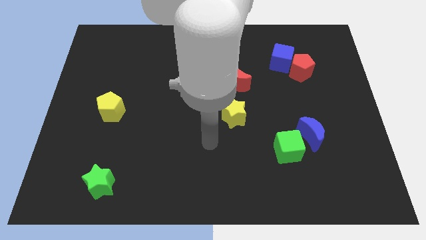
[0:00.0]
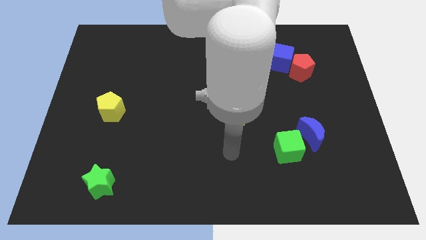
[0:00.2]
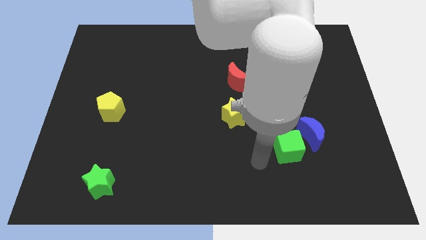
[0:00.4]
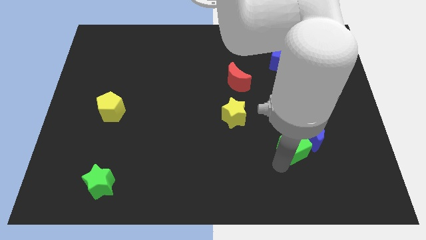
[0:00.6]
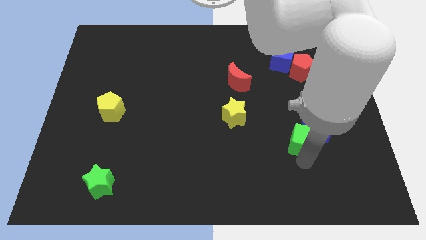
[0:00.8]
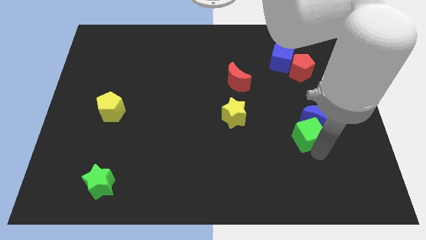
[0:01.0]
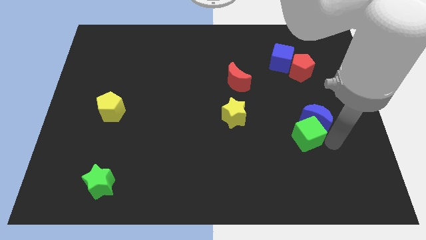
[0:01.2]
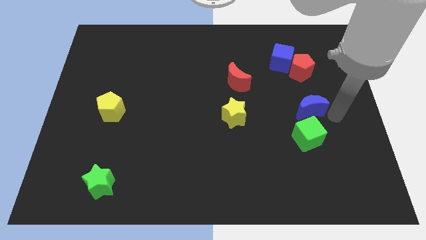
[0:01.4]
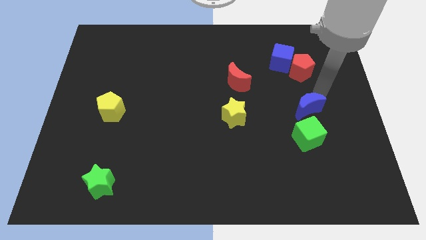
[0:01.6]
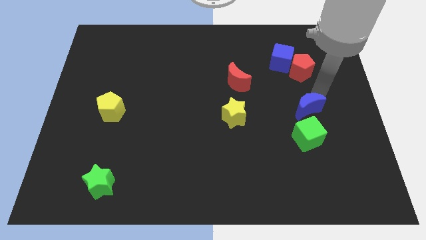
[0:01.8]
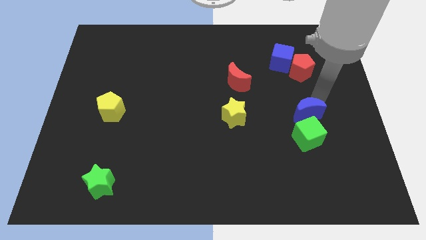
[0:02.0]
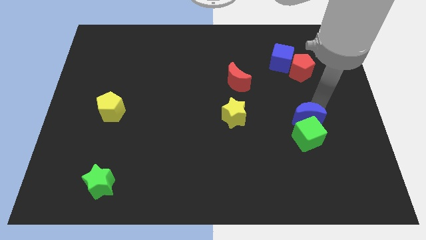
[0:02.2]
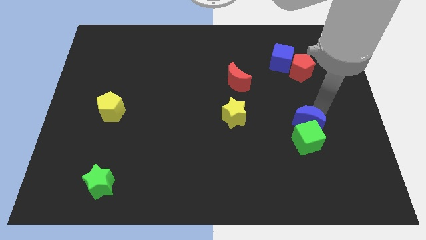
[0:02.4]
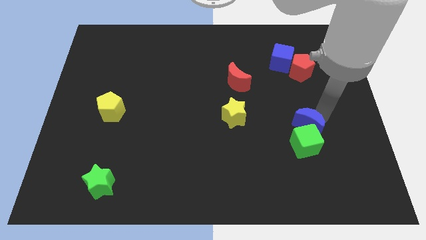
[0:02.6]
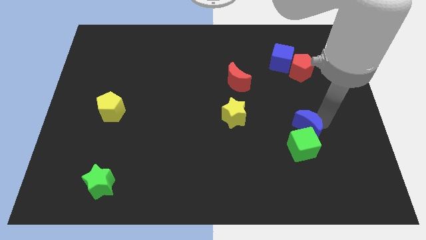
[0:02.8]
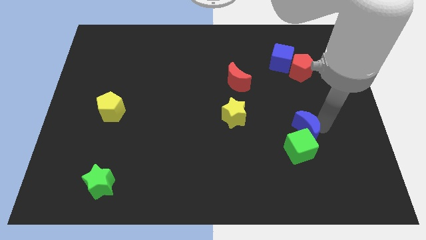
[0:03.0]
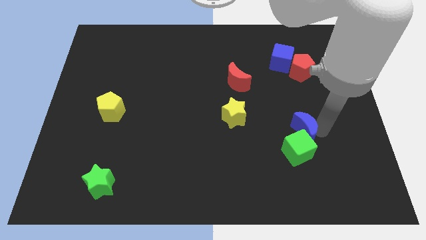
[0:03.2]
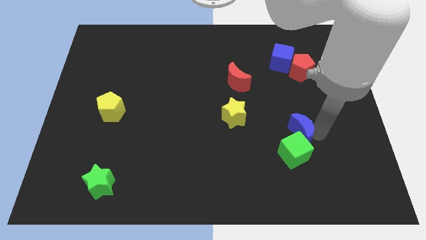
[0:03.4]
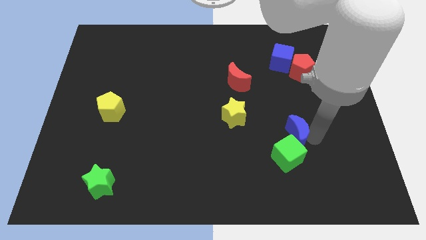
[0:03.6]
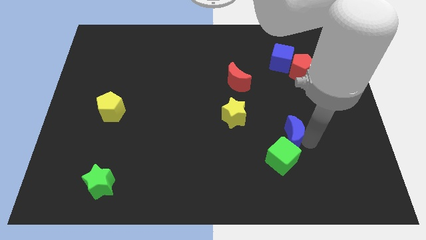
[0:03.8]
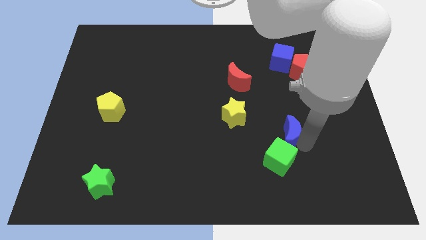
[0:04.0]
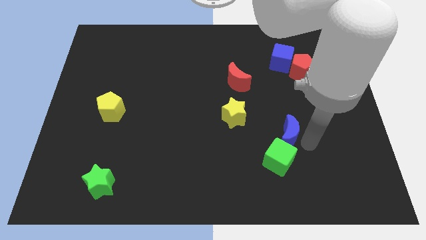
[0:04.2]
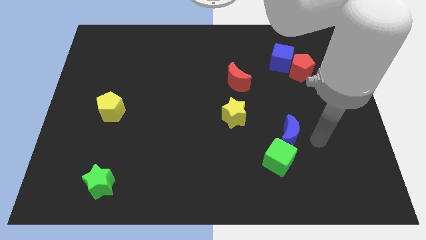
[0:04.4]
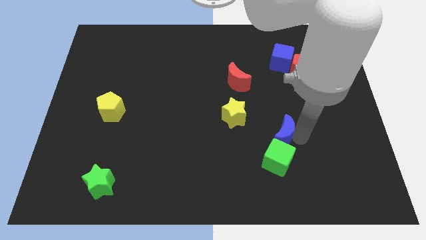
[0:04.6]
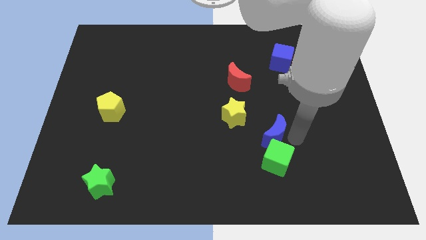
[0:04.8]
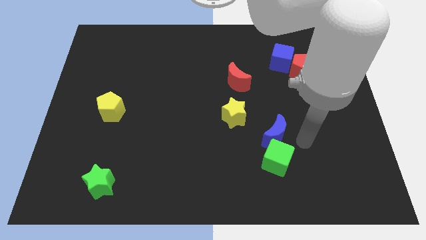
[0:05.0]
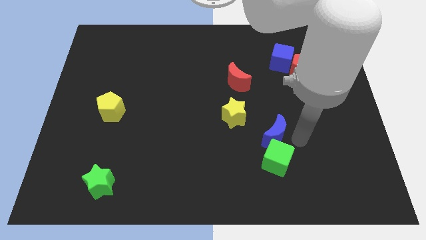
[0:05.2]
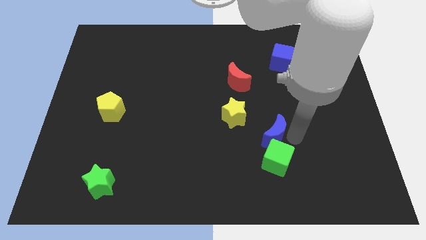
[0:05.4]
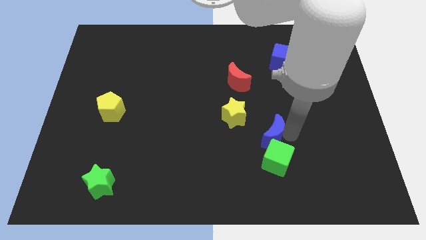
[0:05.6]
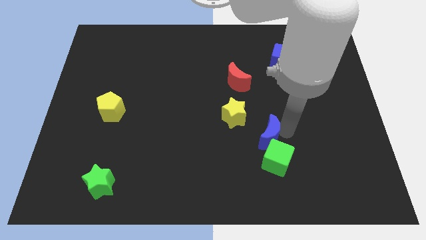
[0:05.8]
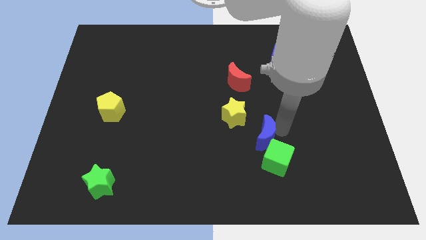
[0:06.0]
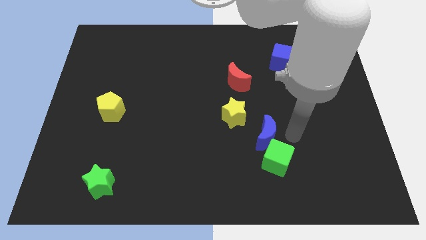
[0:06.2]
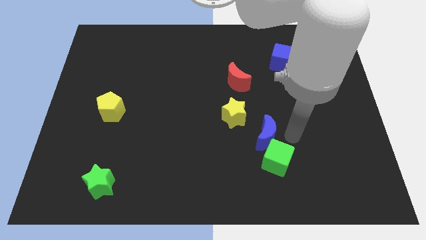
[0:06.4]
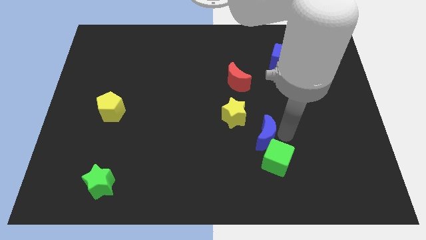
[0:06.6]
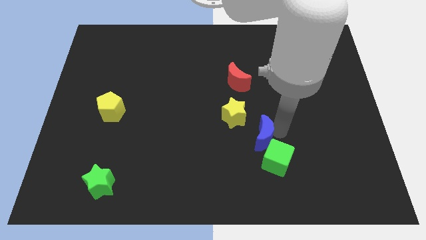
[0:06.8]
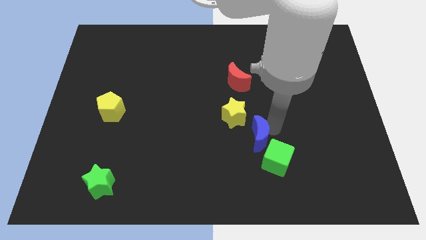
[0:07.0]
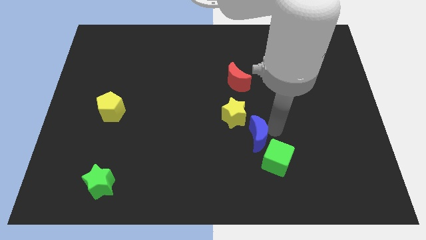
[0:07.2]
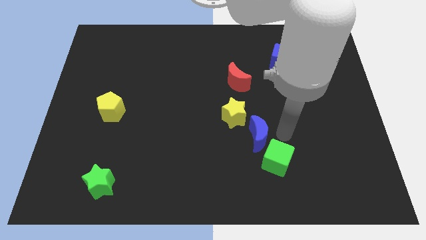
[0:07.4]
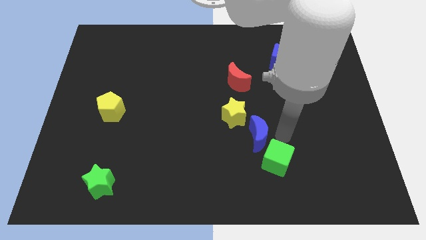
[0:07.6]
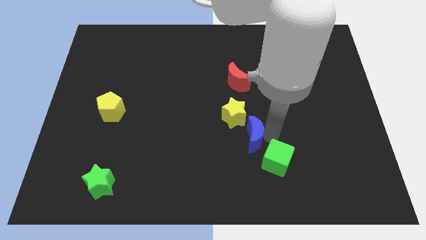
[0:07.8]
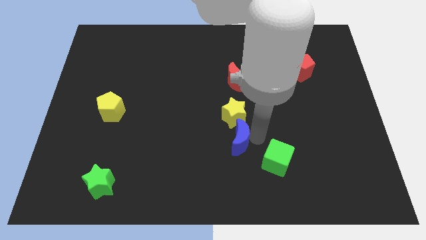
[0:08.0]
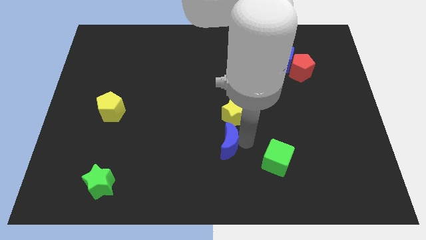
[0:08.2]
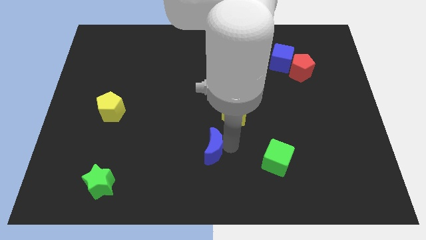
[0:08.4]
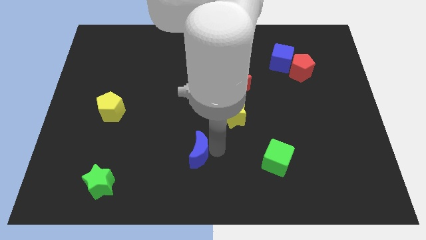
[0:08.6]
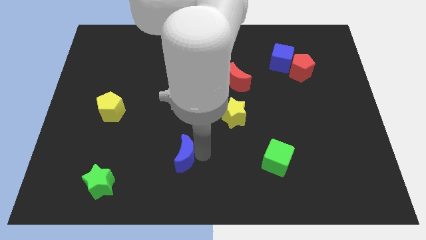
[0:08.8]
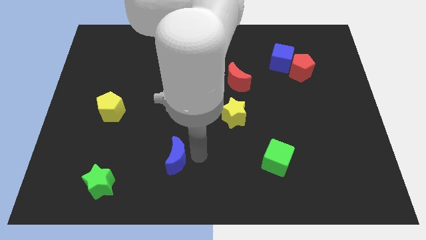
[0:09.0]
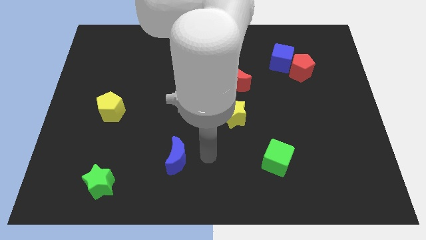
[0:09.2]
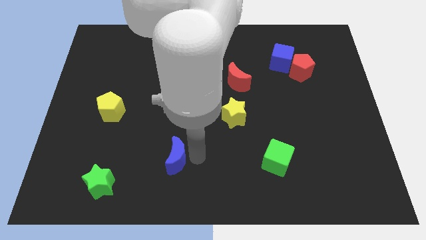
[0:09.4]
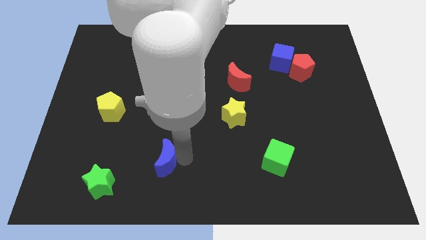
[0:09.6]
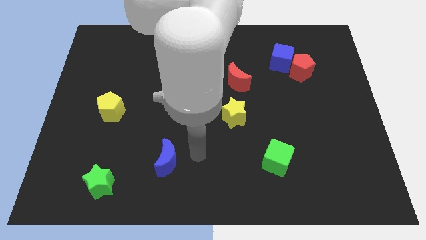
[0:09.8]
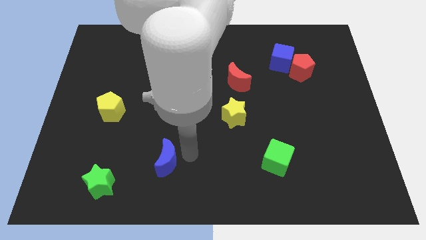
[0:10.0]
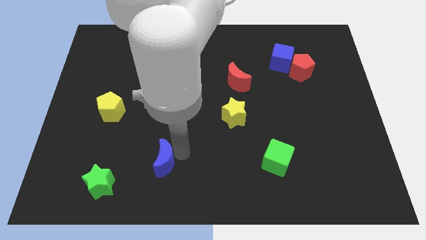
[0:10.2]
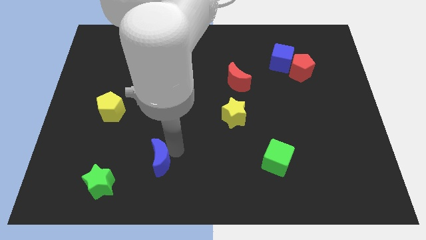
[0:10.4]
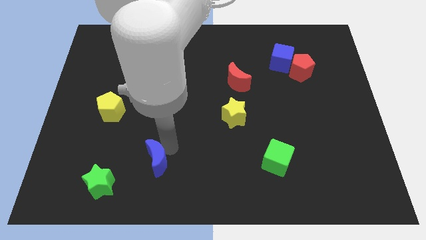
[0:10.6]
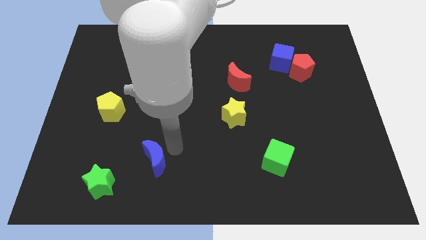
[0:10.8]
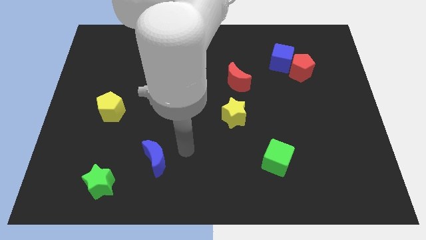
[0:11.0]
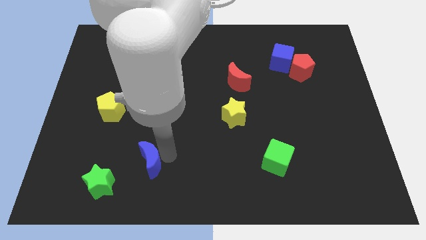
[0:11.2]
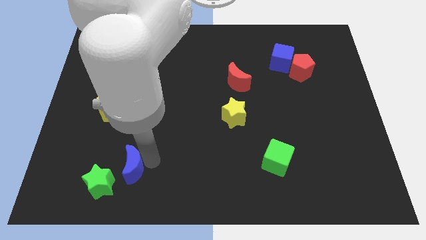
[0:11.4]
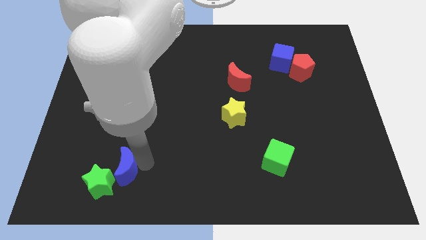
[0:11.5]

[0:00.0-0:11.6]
move the blue moon towards the green star

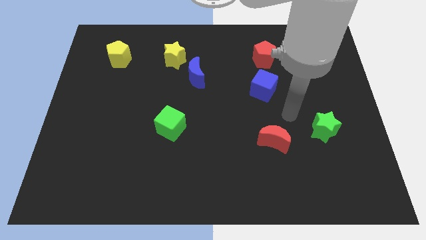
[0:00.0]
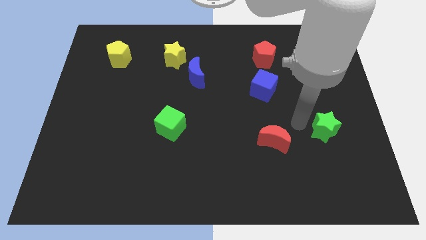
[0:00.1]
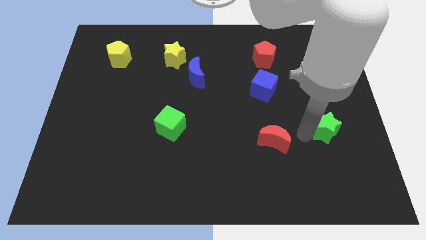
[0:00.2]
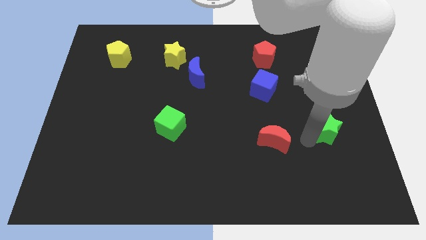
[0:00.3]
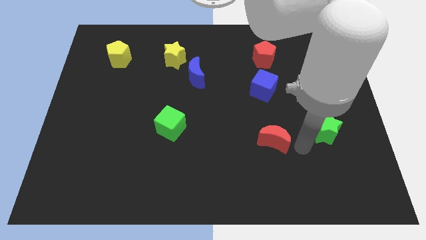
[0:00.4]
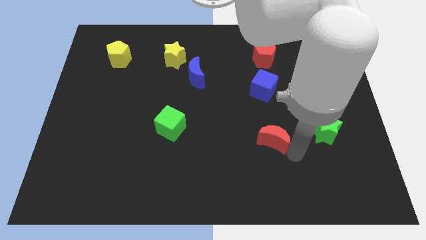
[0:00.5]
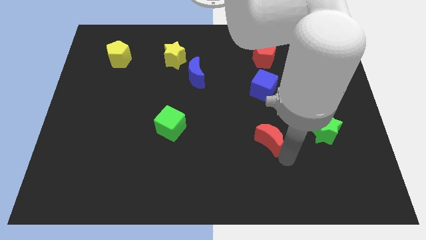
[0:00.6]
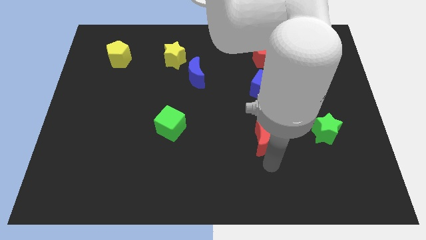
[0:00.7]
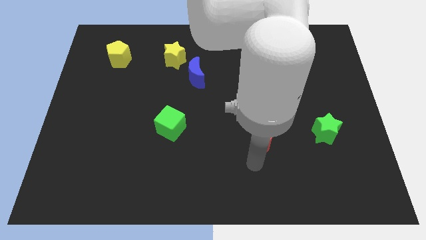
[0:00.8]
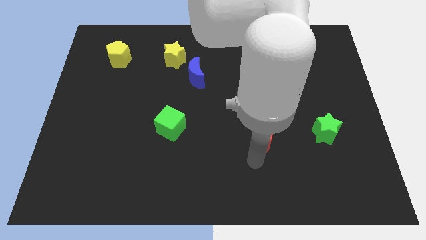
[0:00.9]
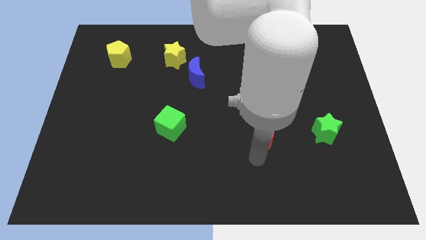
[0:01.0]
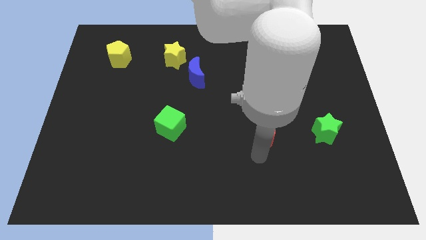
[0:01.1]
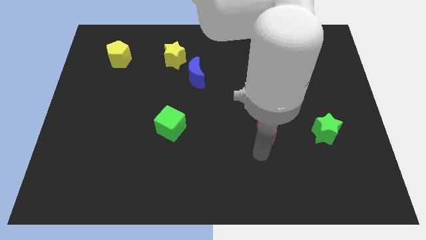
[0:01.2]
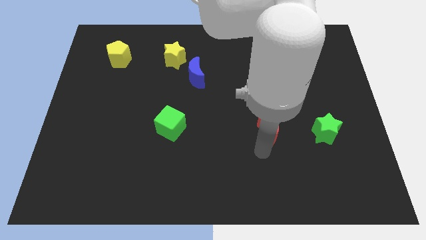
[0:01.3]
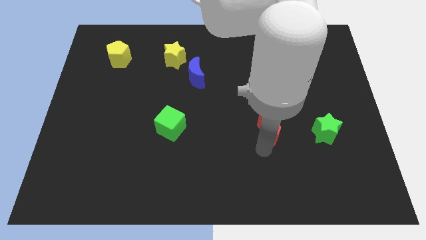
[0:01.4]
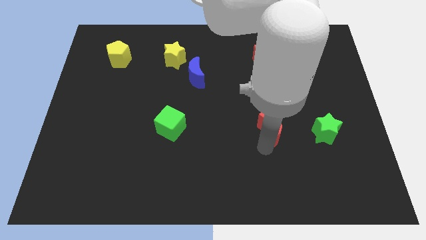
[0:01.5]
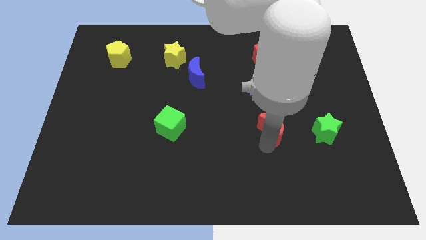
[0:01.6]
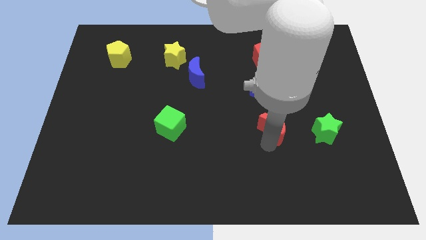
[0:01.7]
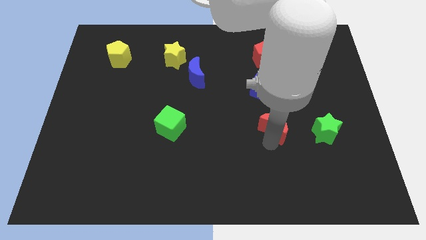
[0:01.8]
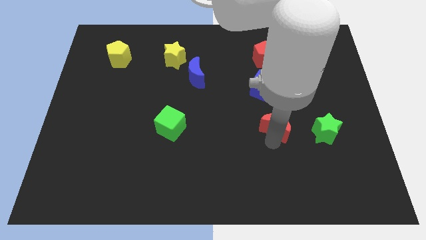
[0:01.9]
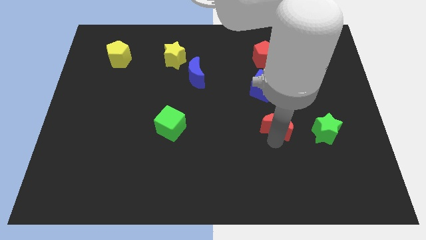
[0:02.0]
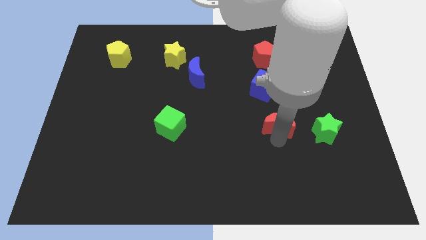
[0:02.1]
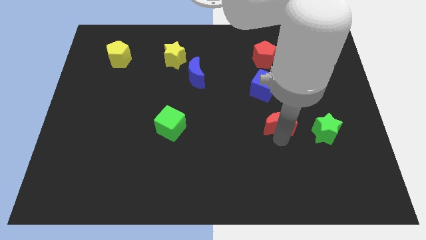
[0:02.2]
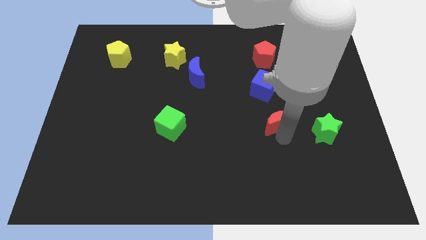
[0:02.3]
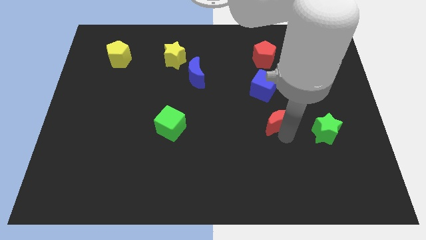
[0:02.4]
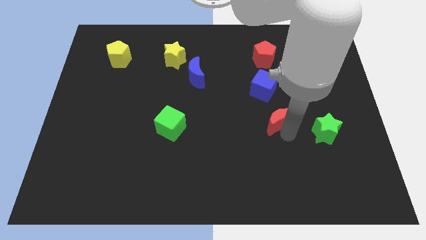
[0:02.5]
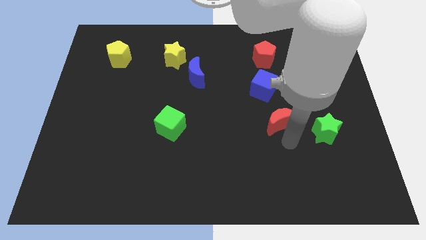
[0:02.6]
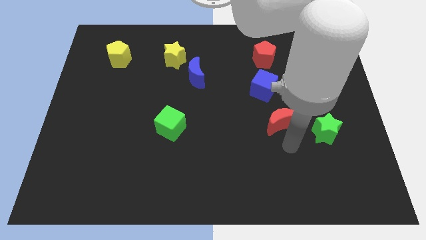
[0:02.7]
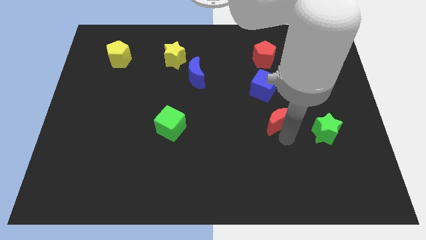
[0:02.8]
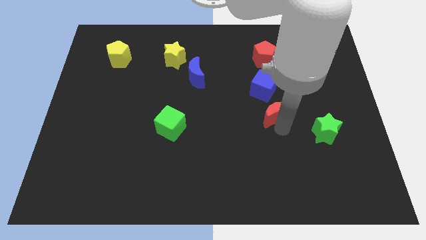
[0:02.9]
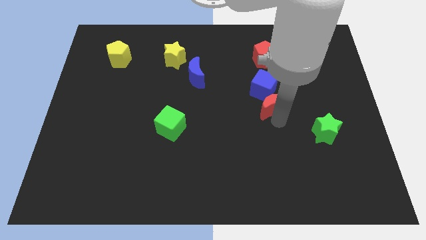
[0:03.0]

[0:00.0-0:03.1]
put the red moon towards the blue cube
